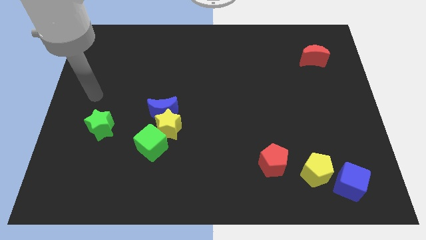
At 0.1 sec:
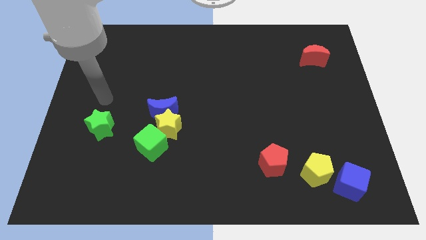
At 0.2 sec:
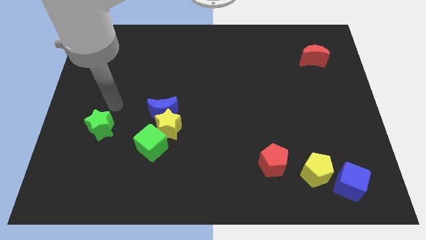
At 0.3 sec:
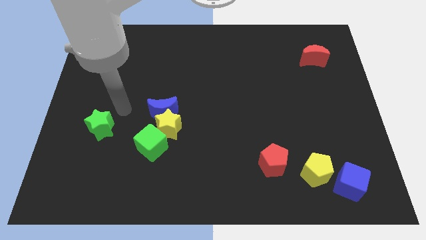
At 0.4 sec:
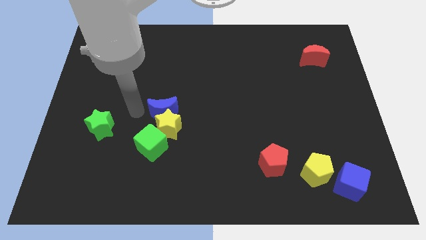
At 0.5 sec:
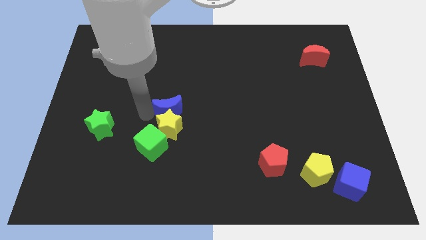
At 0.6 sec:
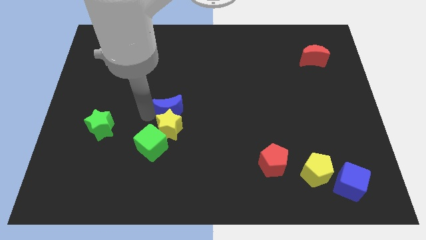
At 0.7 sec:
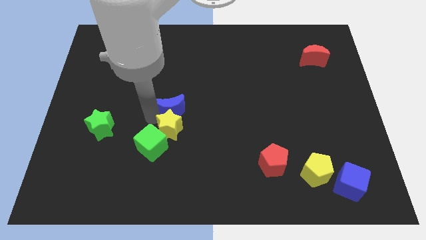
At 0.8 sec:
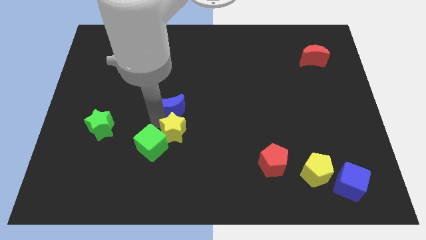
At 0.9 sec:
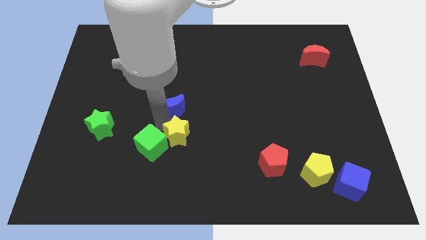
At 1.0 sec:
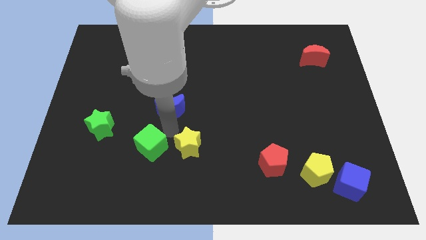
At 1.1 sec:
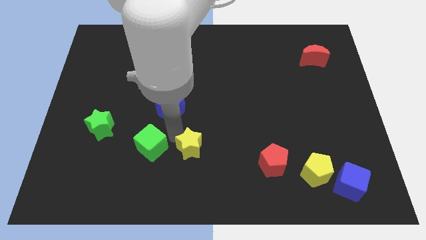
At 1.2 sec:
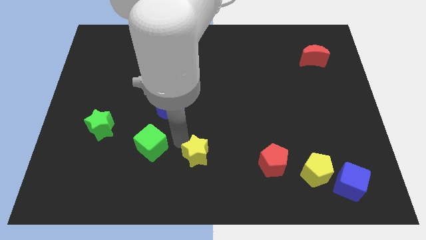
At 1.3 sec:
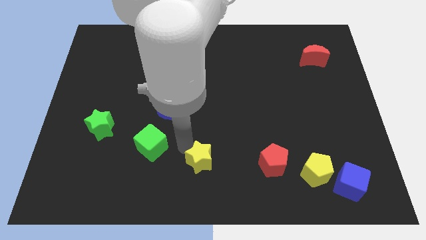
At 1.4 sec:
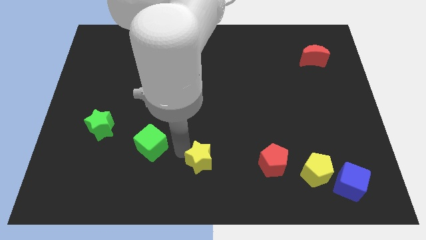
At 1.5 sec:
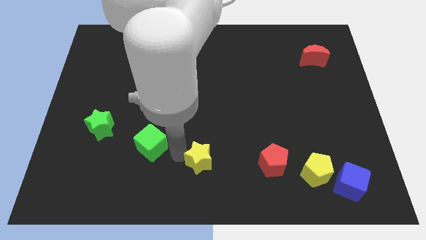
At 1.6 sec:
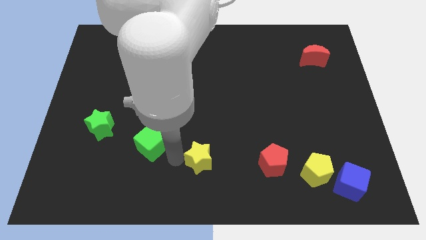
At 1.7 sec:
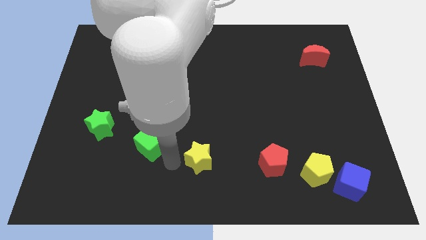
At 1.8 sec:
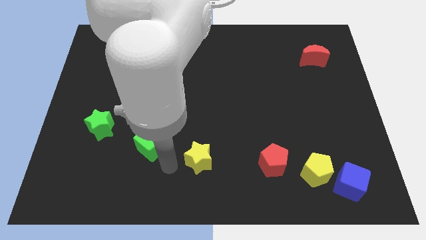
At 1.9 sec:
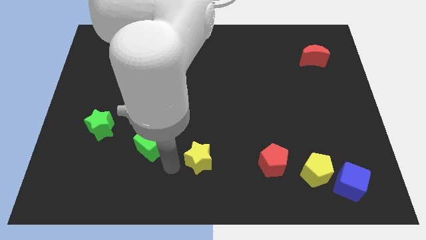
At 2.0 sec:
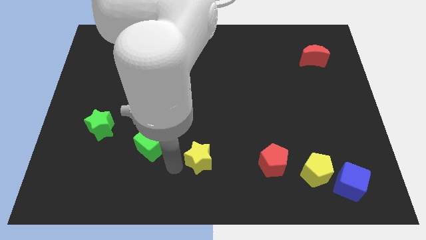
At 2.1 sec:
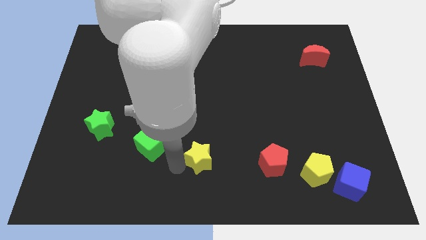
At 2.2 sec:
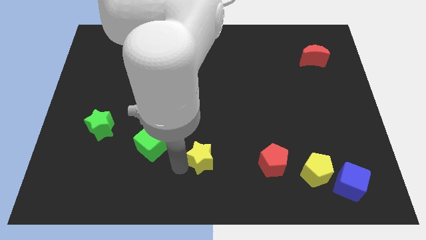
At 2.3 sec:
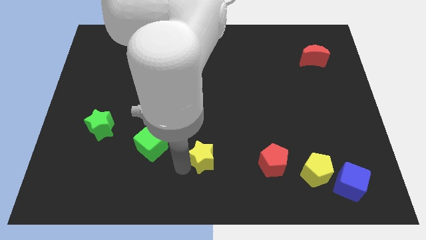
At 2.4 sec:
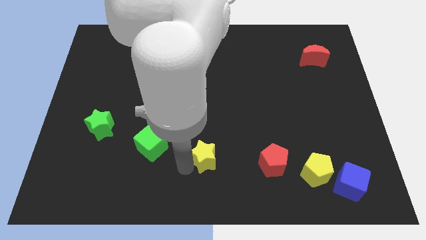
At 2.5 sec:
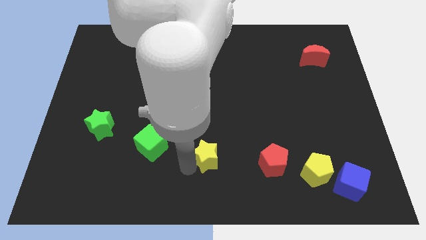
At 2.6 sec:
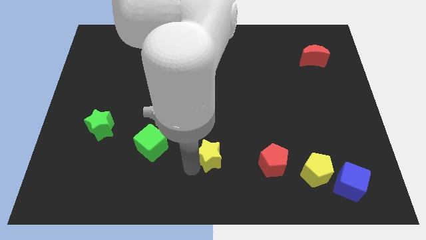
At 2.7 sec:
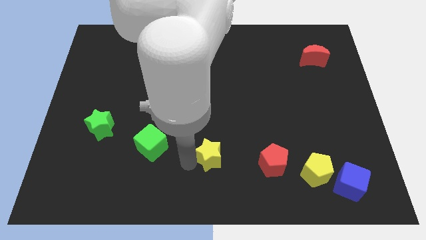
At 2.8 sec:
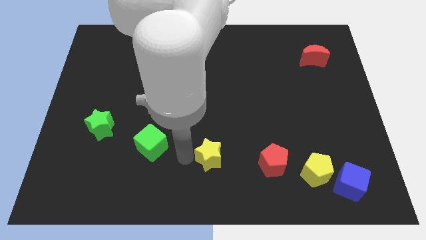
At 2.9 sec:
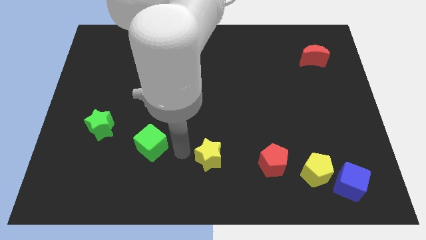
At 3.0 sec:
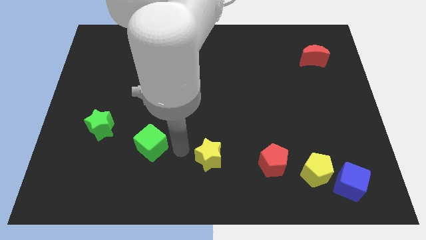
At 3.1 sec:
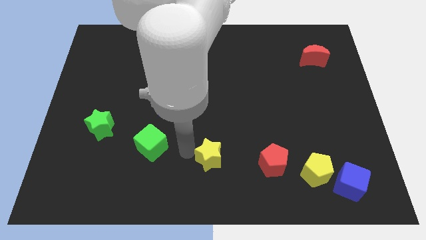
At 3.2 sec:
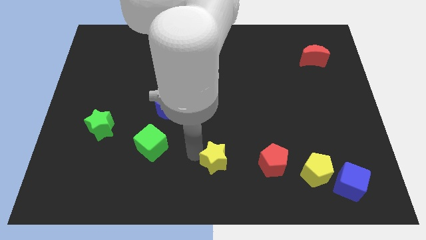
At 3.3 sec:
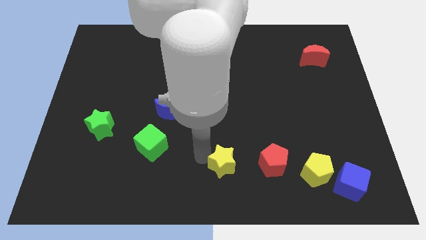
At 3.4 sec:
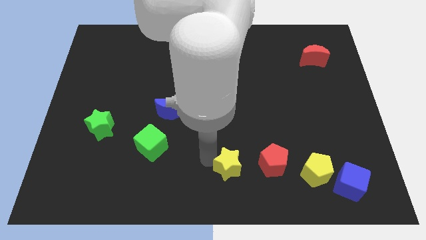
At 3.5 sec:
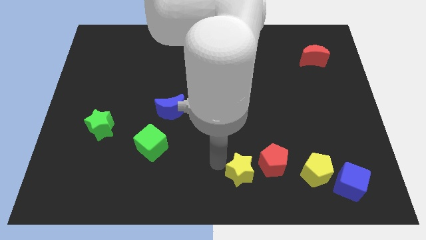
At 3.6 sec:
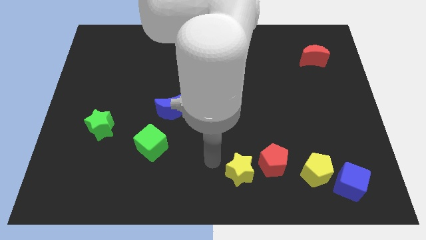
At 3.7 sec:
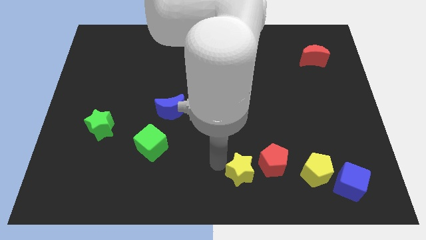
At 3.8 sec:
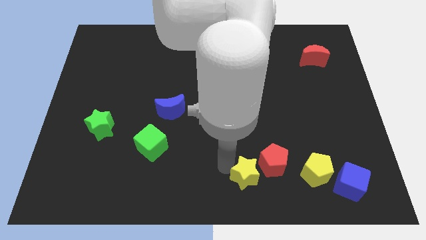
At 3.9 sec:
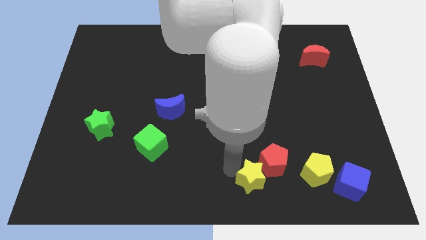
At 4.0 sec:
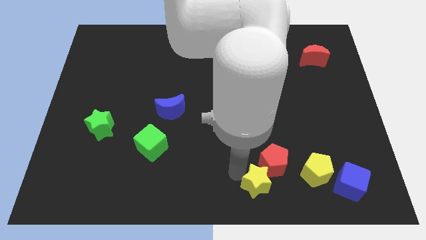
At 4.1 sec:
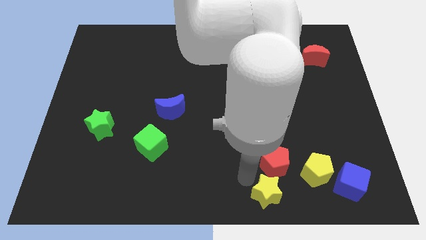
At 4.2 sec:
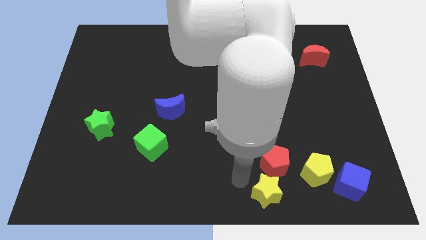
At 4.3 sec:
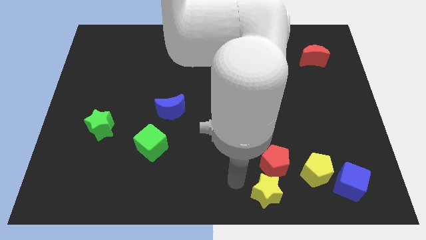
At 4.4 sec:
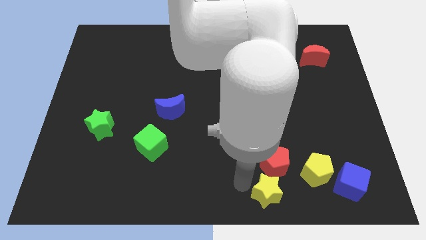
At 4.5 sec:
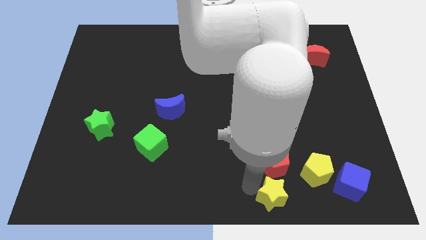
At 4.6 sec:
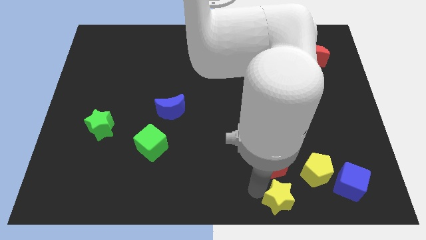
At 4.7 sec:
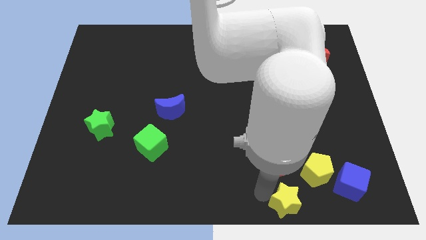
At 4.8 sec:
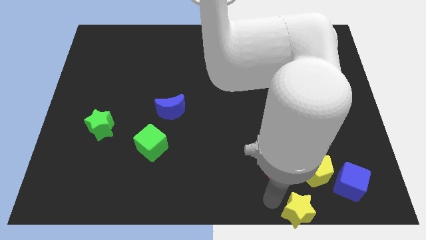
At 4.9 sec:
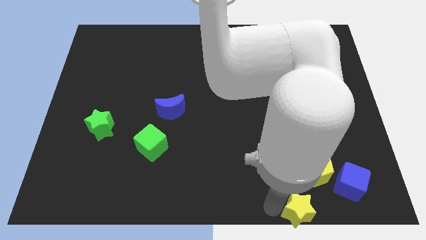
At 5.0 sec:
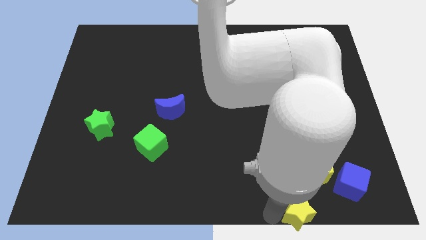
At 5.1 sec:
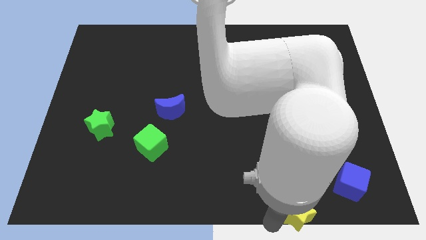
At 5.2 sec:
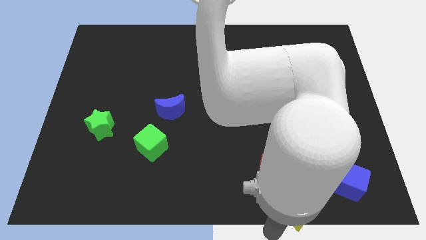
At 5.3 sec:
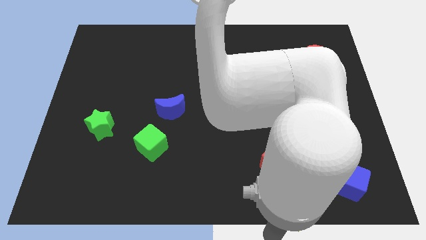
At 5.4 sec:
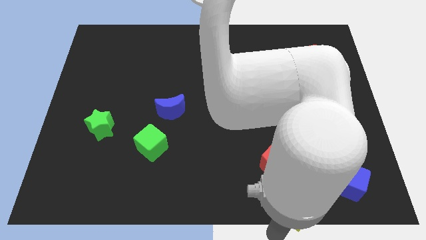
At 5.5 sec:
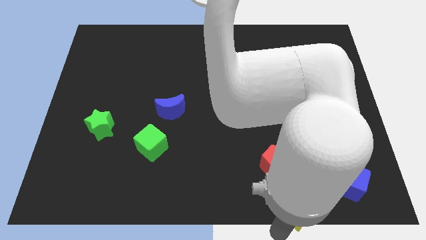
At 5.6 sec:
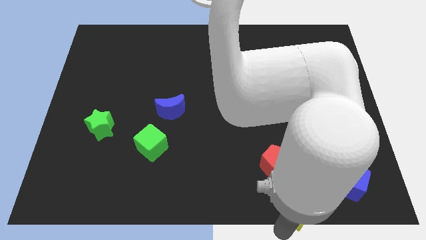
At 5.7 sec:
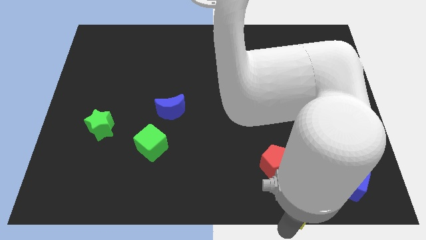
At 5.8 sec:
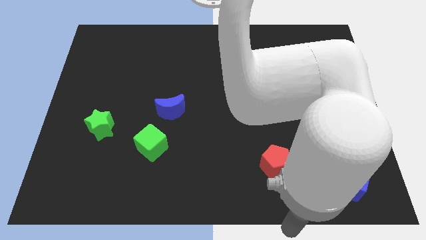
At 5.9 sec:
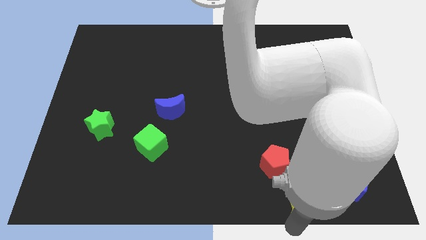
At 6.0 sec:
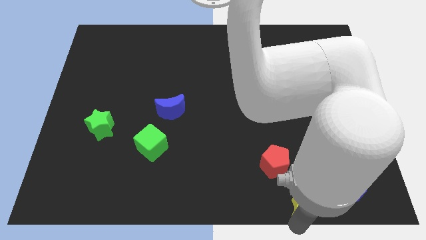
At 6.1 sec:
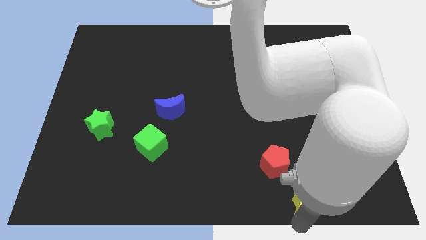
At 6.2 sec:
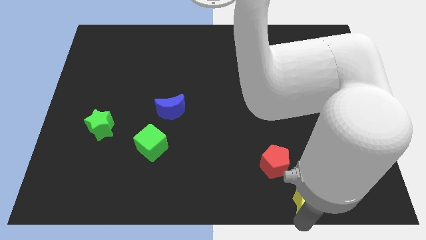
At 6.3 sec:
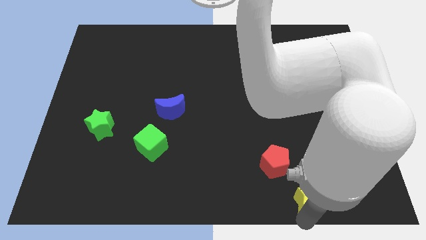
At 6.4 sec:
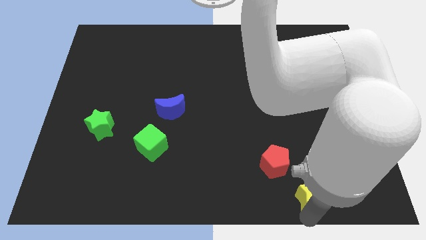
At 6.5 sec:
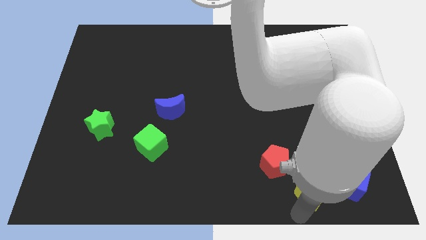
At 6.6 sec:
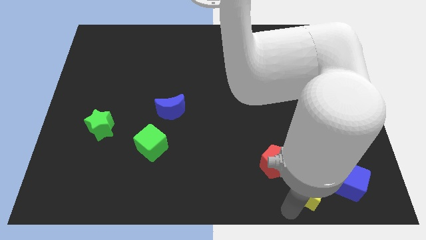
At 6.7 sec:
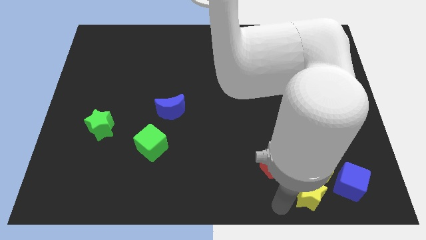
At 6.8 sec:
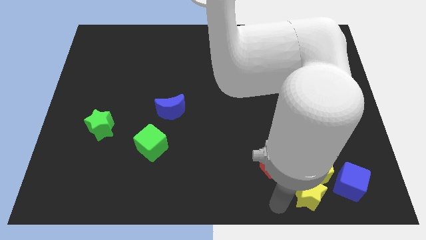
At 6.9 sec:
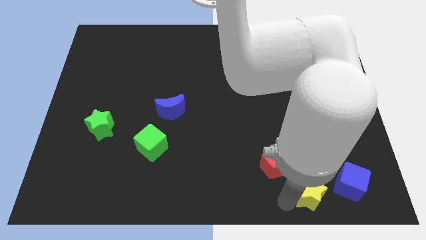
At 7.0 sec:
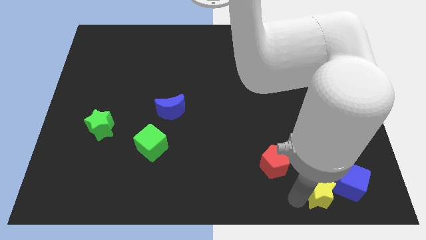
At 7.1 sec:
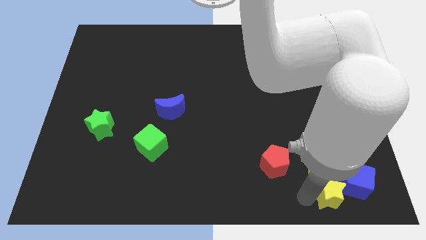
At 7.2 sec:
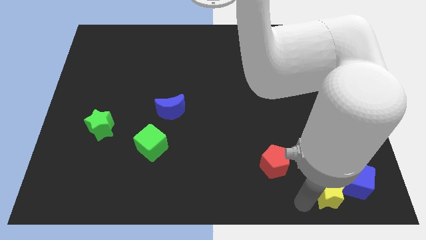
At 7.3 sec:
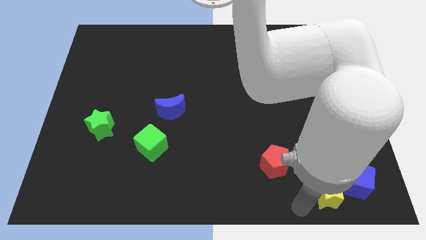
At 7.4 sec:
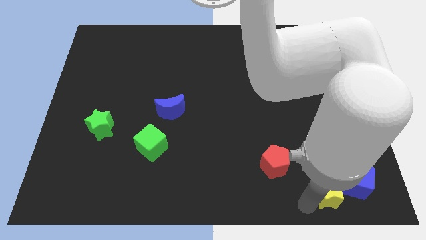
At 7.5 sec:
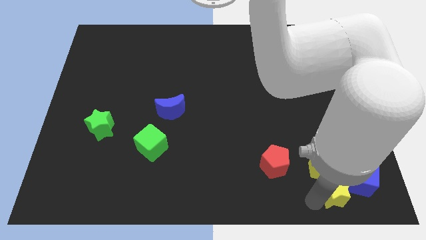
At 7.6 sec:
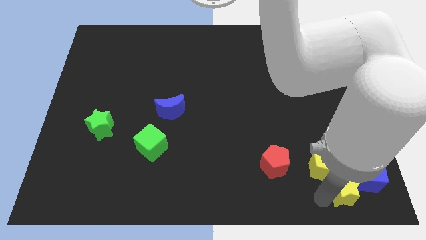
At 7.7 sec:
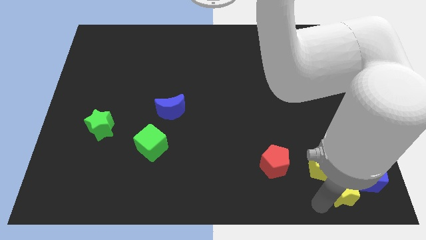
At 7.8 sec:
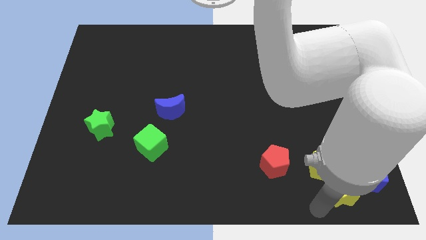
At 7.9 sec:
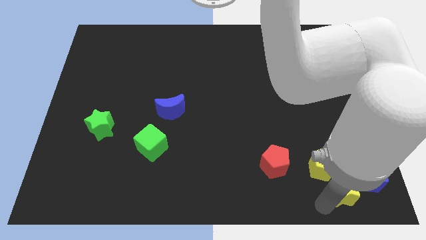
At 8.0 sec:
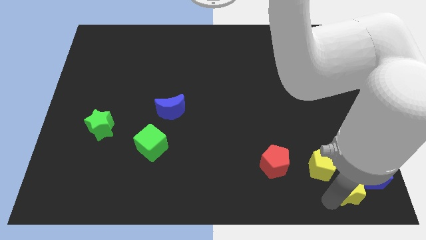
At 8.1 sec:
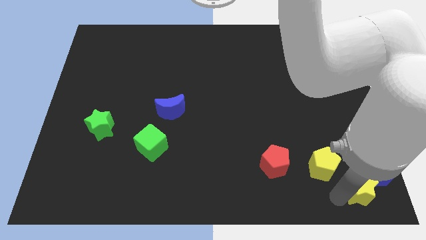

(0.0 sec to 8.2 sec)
push the yellow star next to the blue cube
